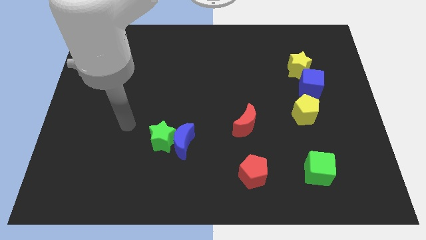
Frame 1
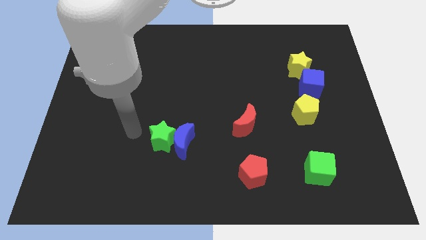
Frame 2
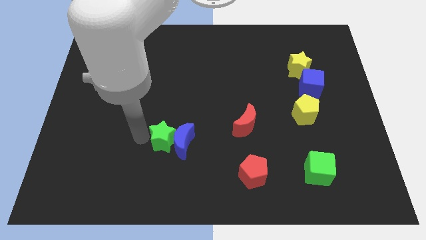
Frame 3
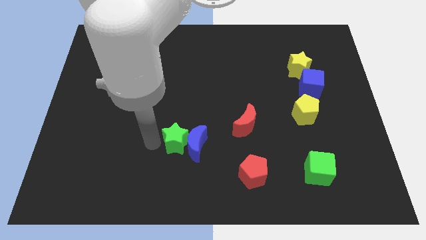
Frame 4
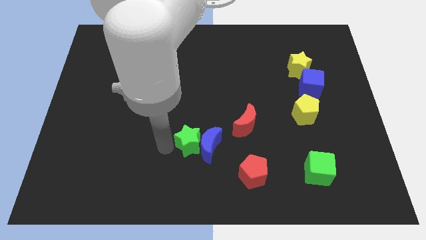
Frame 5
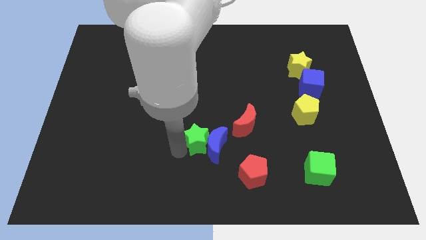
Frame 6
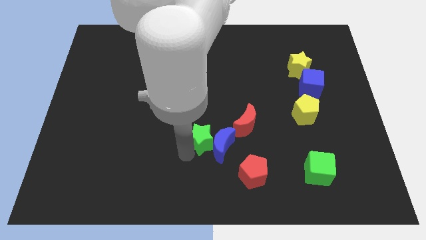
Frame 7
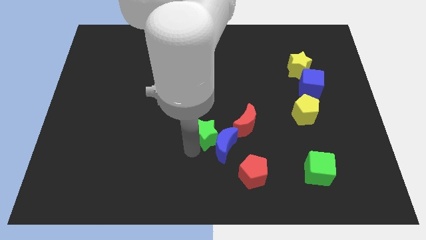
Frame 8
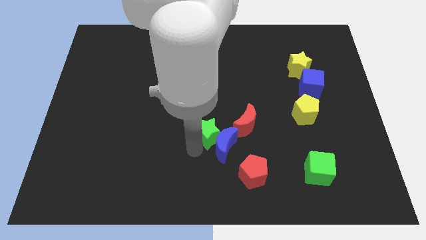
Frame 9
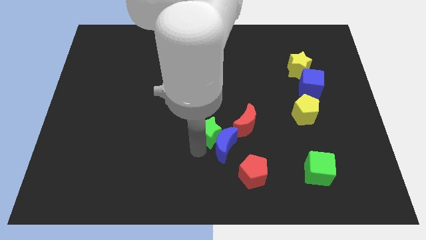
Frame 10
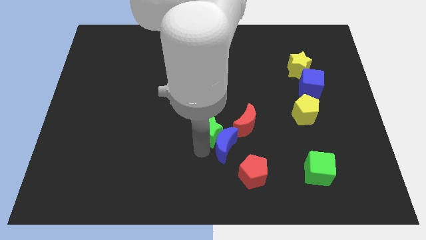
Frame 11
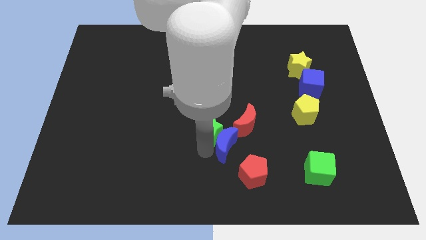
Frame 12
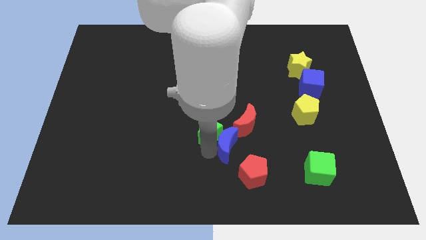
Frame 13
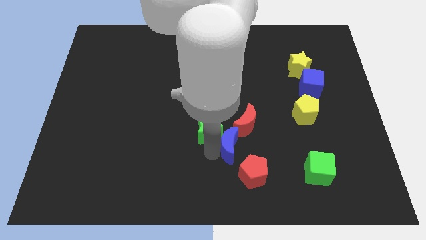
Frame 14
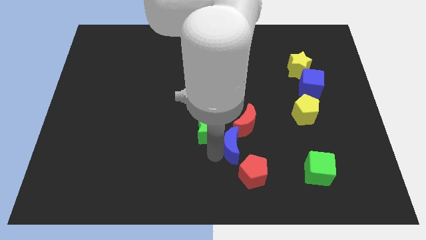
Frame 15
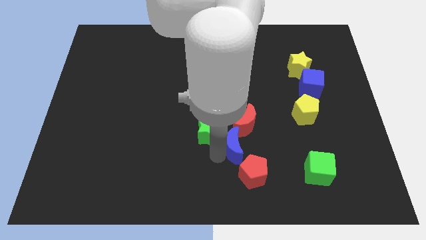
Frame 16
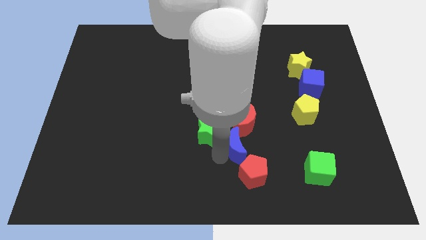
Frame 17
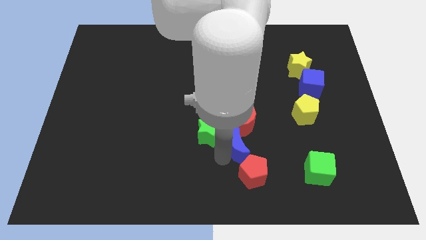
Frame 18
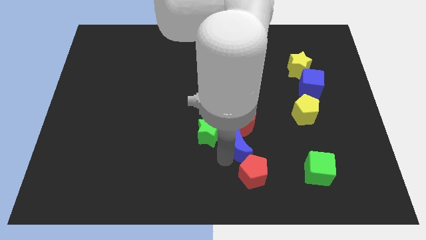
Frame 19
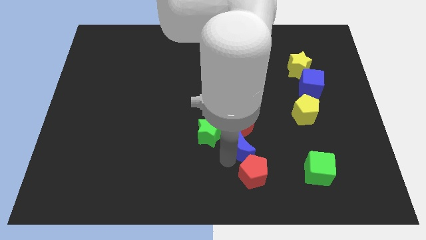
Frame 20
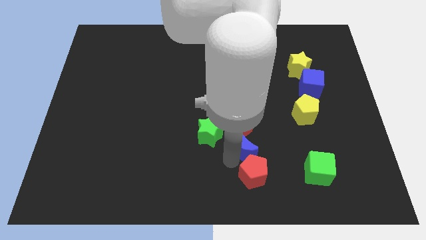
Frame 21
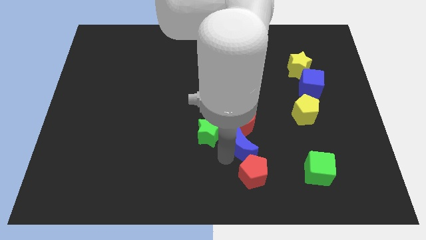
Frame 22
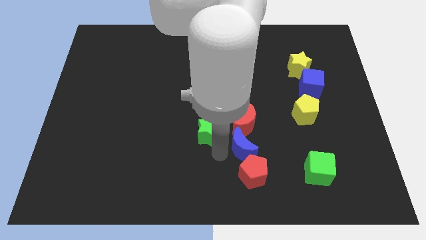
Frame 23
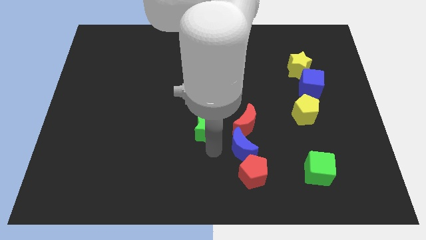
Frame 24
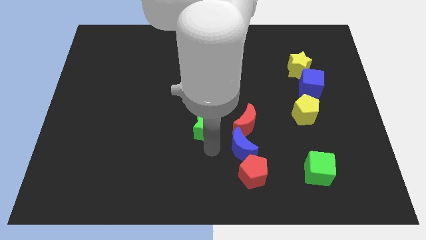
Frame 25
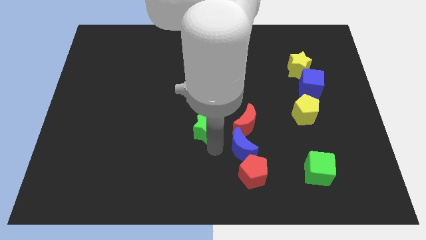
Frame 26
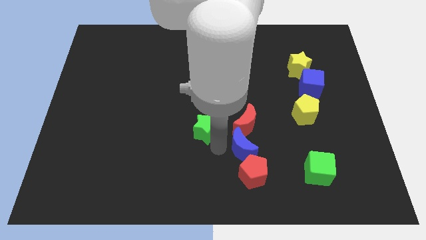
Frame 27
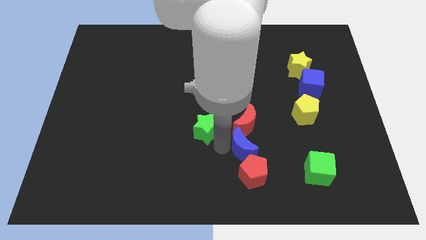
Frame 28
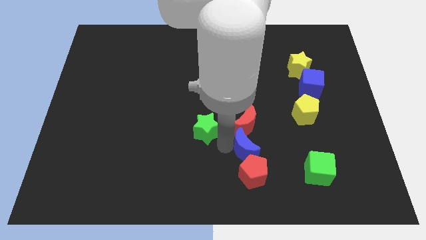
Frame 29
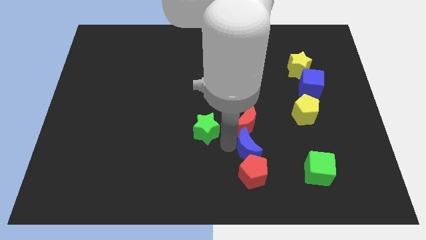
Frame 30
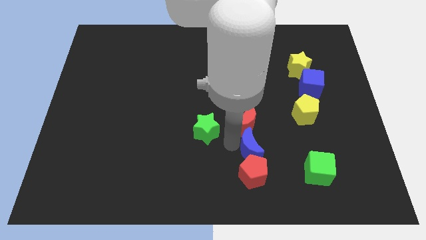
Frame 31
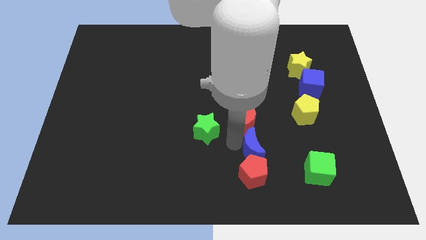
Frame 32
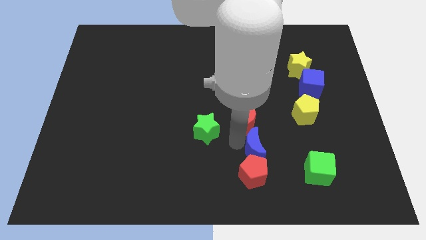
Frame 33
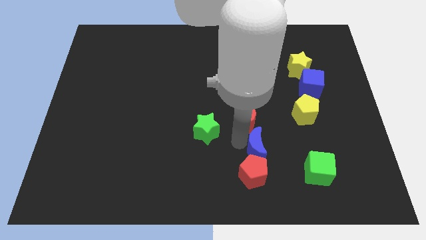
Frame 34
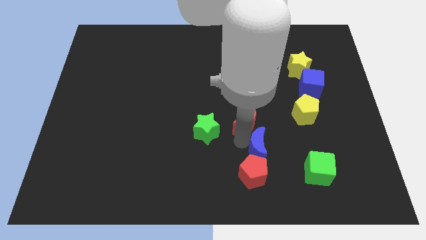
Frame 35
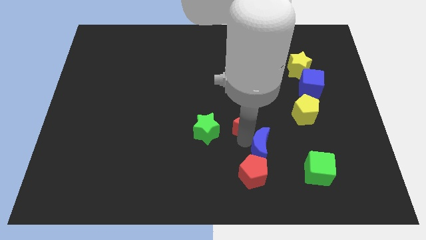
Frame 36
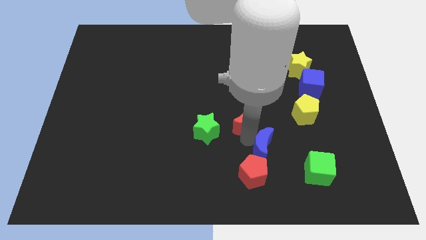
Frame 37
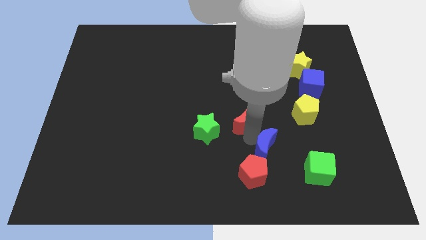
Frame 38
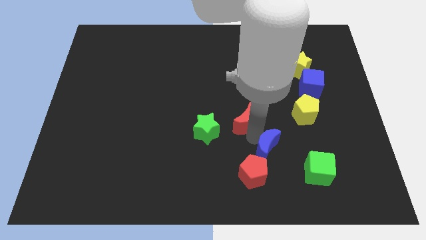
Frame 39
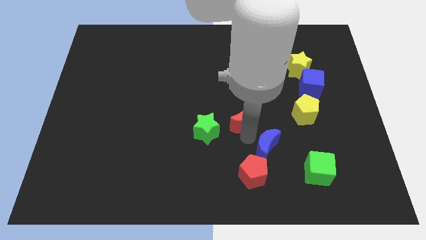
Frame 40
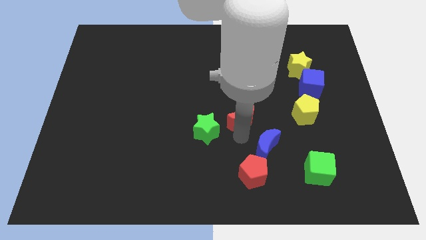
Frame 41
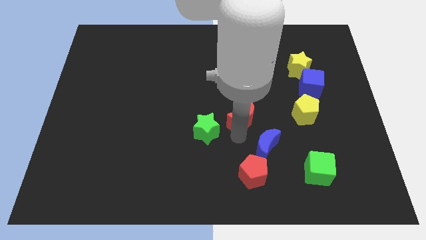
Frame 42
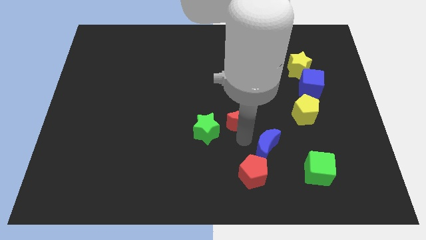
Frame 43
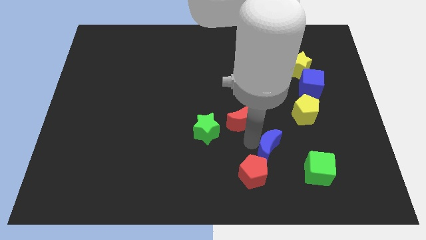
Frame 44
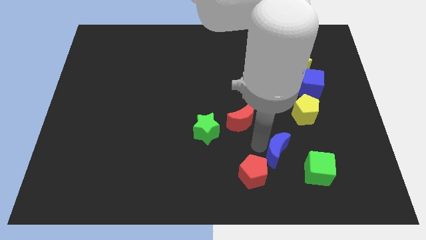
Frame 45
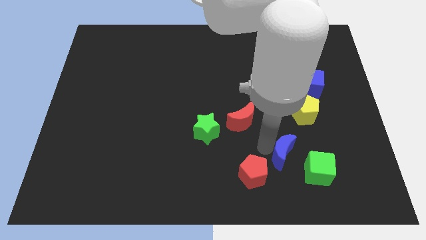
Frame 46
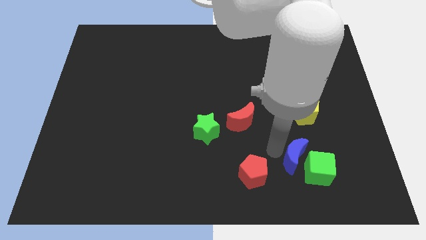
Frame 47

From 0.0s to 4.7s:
push the blue moon towards the green cube

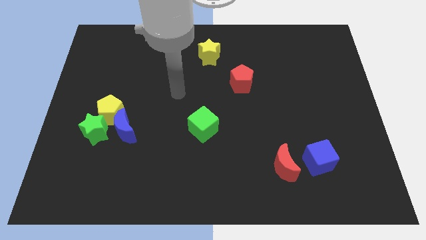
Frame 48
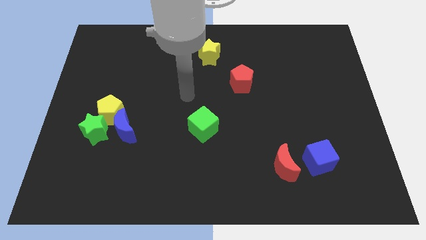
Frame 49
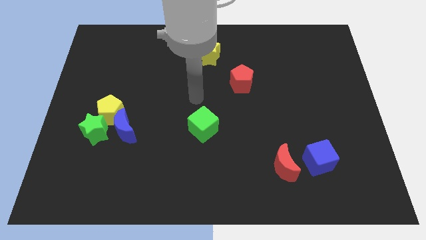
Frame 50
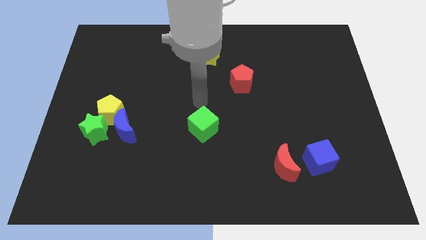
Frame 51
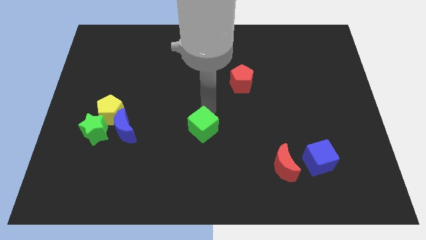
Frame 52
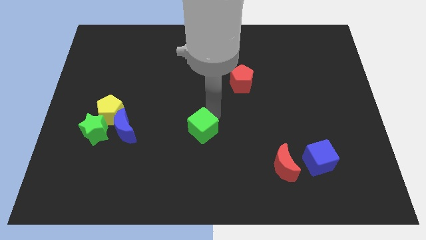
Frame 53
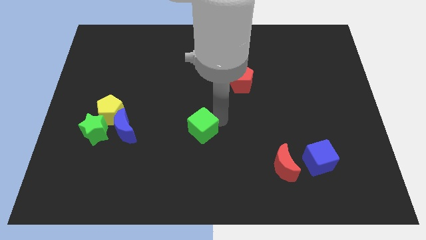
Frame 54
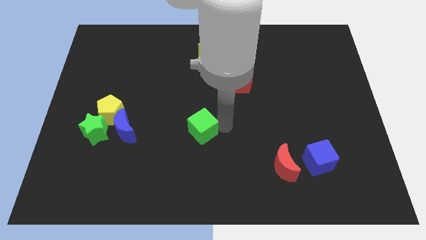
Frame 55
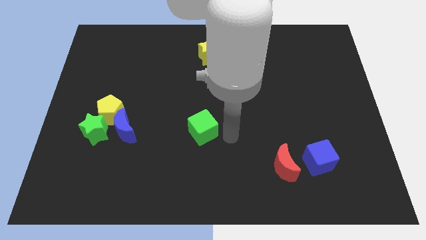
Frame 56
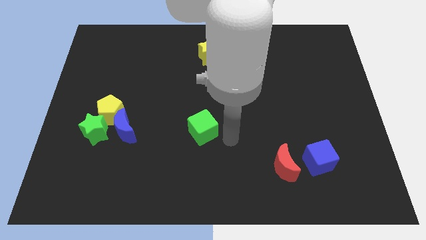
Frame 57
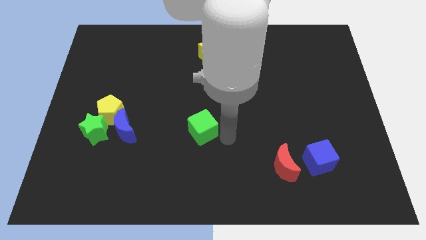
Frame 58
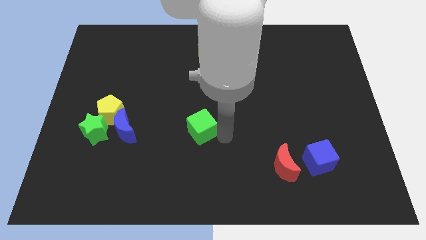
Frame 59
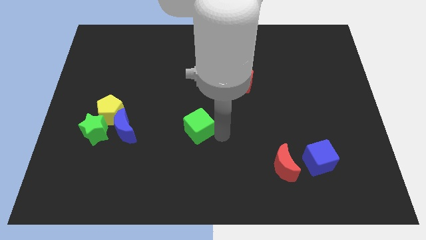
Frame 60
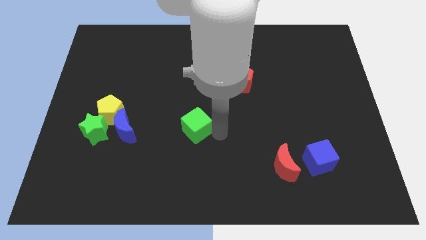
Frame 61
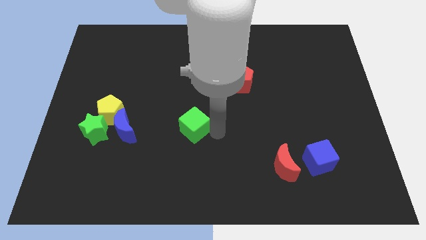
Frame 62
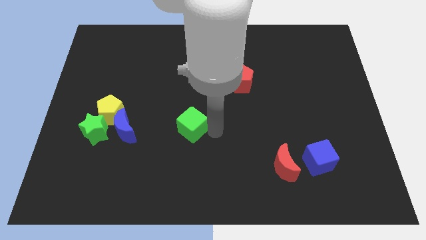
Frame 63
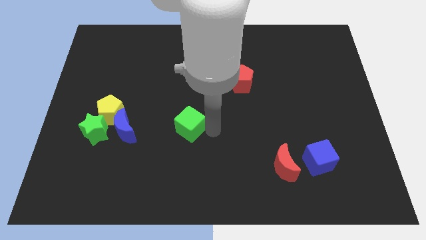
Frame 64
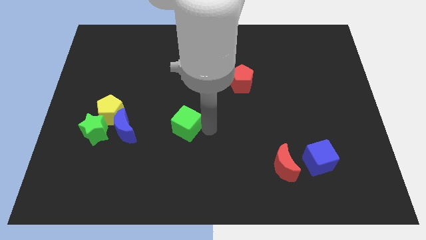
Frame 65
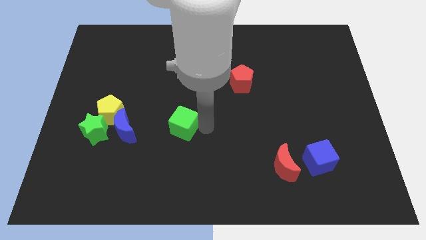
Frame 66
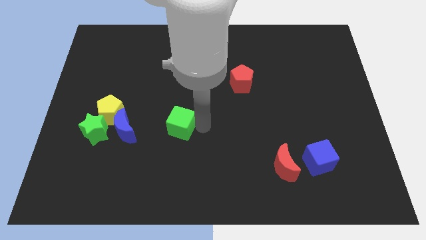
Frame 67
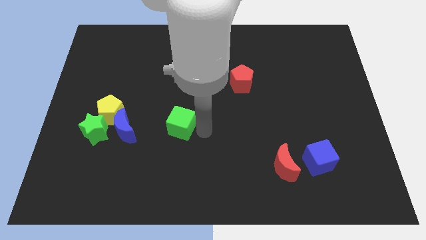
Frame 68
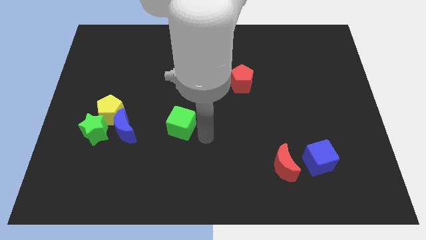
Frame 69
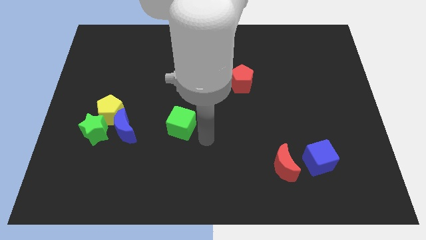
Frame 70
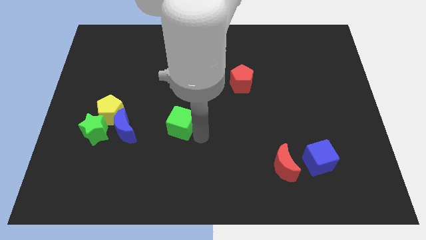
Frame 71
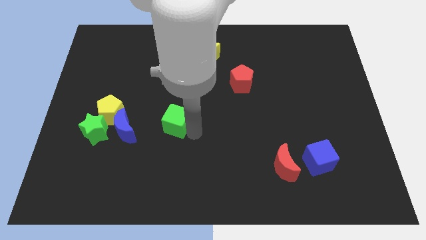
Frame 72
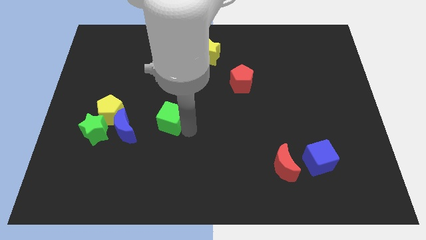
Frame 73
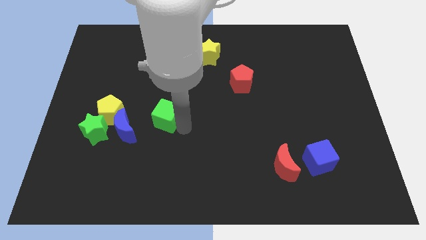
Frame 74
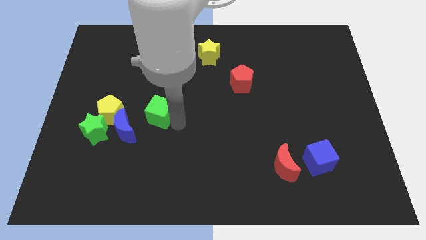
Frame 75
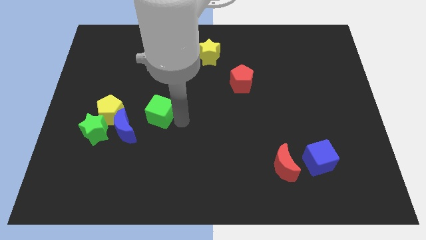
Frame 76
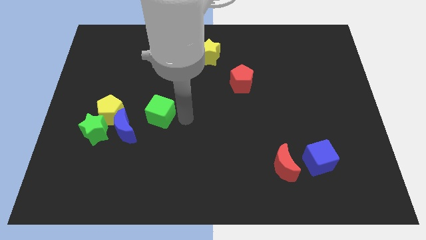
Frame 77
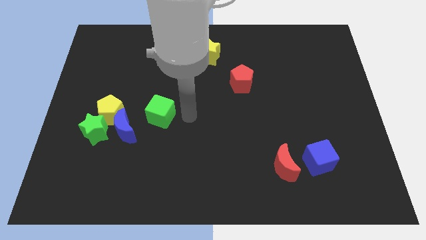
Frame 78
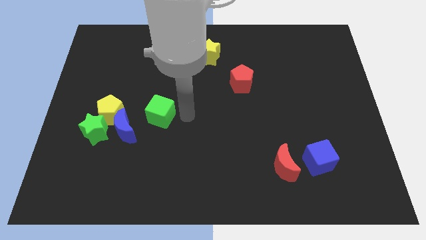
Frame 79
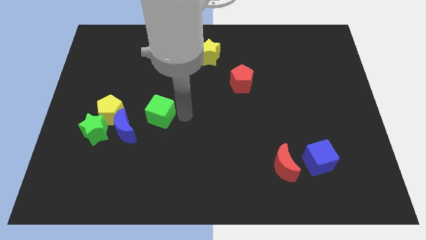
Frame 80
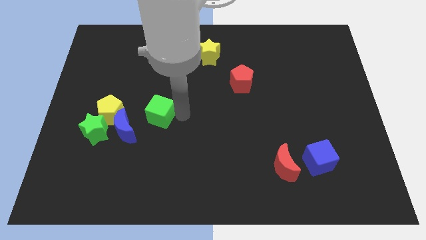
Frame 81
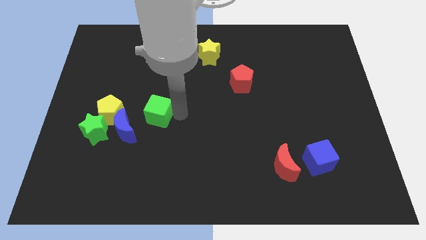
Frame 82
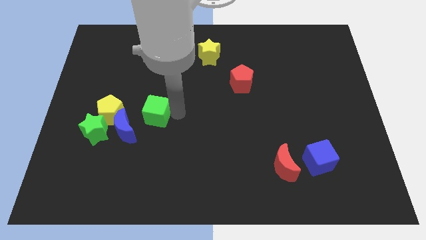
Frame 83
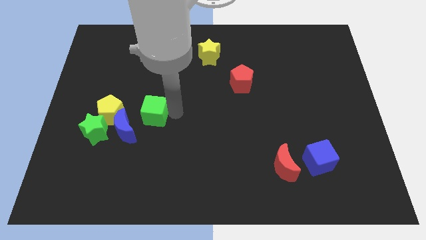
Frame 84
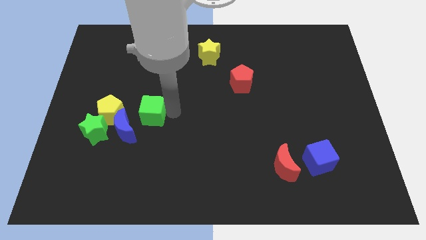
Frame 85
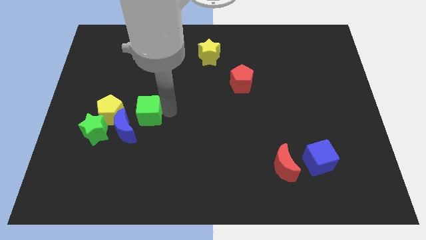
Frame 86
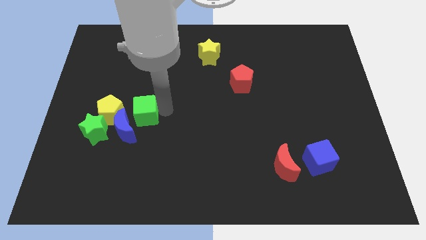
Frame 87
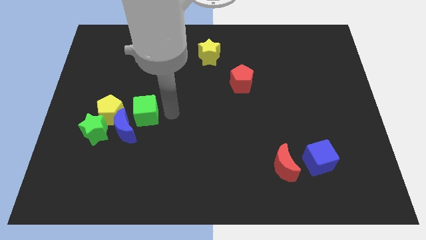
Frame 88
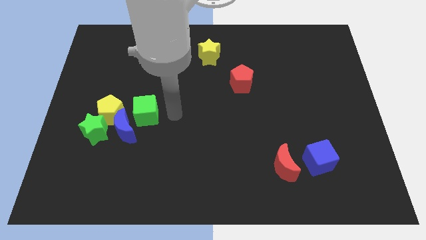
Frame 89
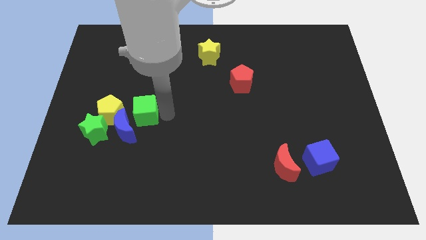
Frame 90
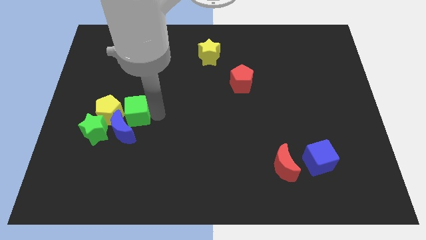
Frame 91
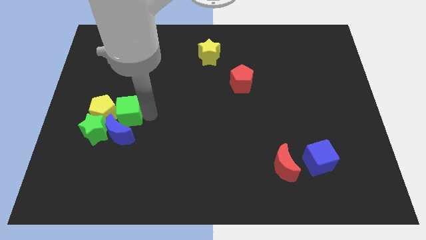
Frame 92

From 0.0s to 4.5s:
move the green cube towards the yellow pentagon
